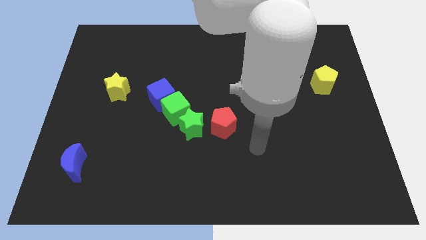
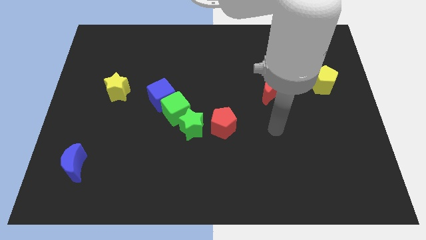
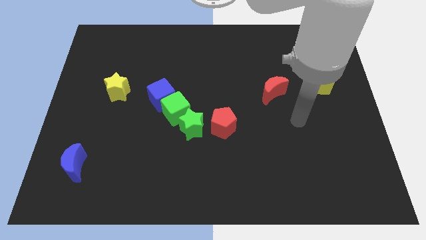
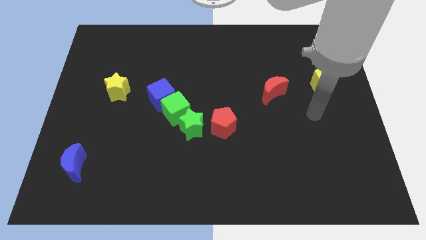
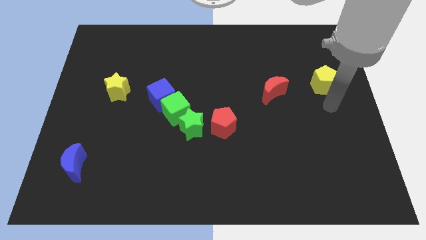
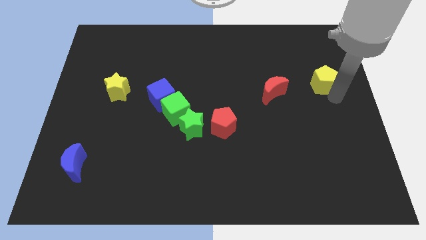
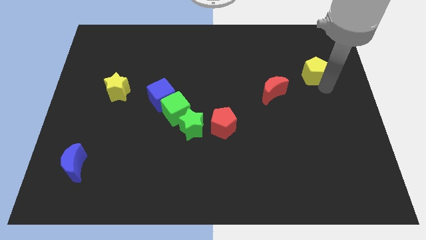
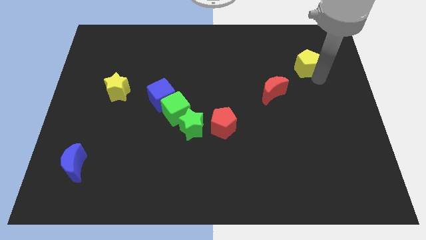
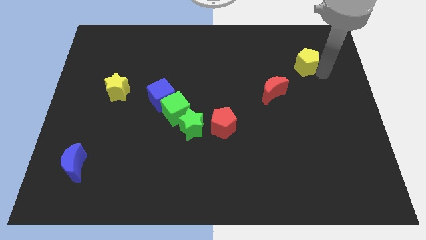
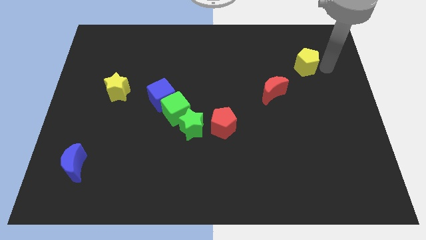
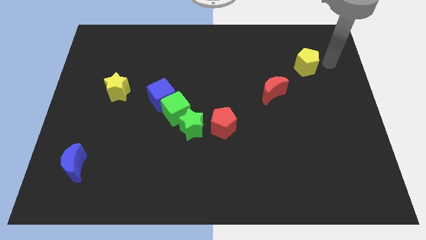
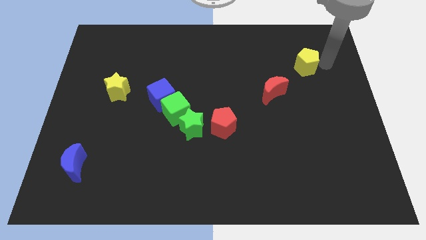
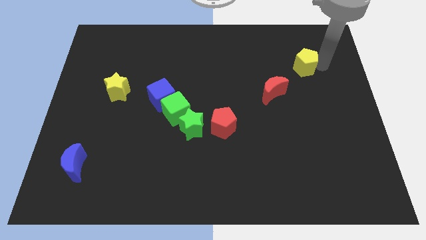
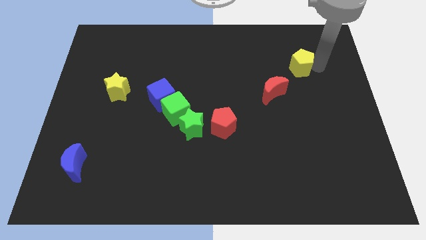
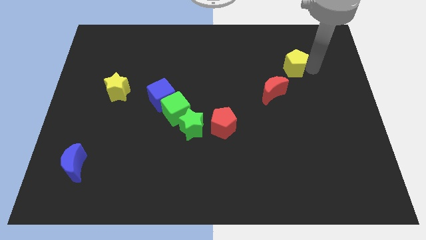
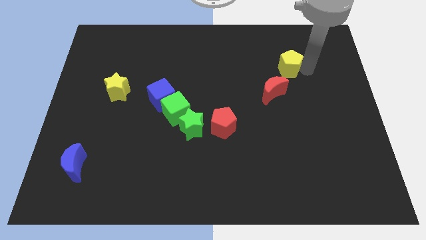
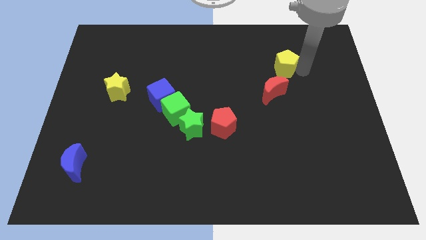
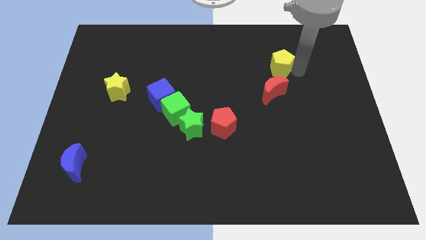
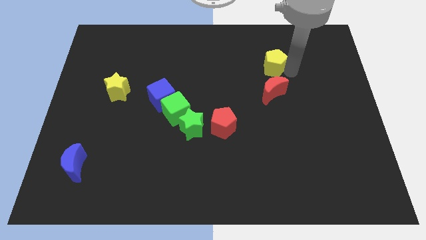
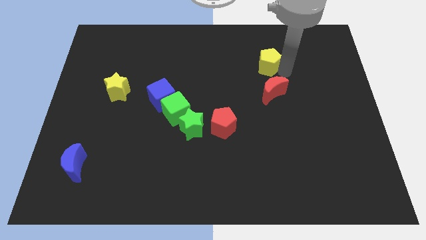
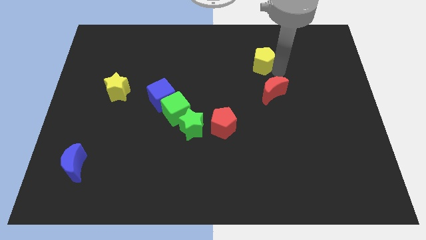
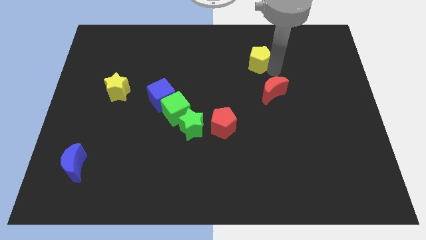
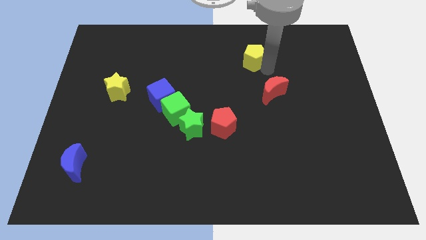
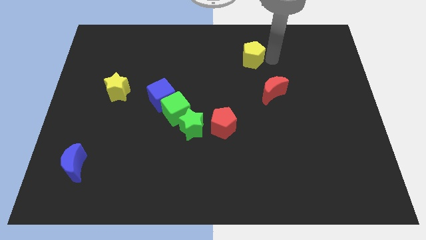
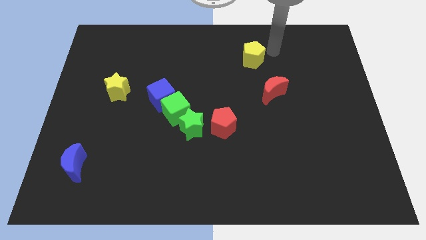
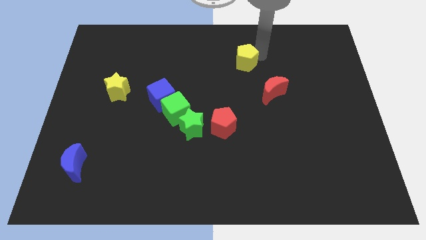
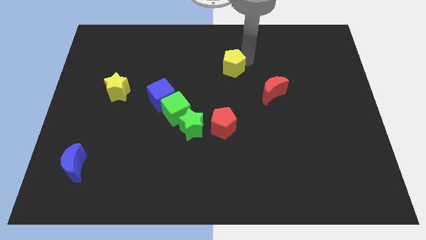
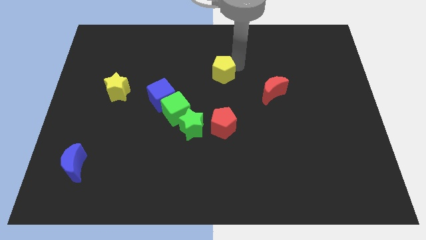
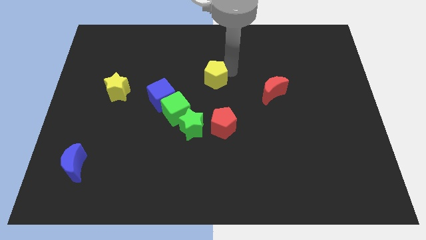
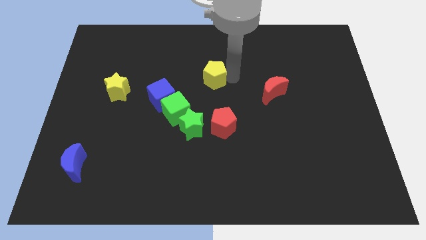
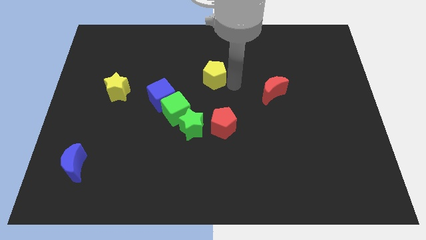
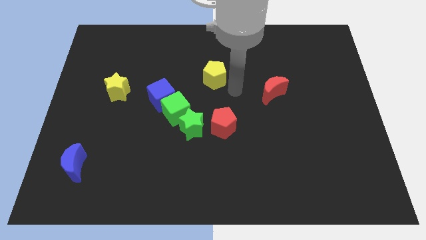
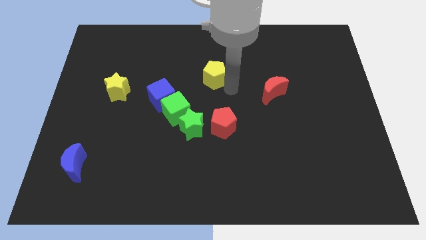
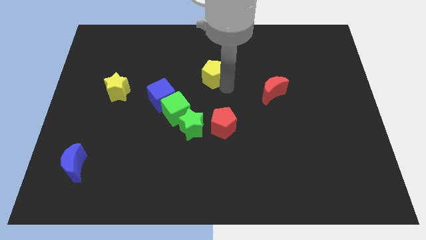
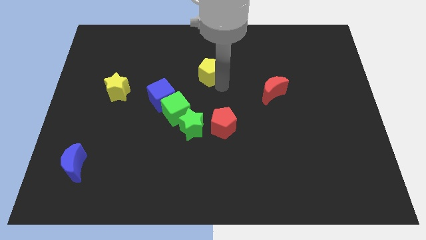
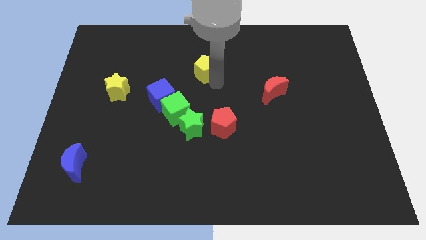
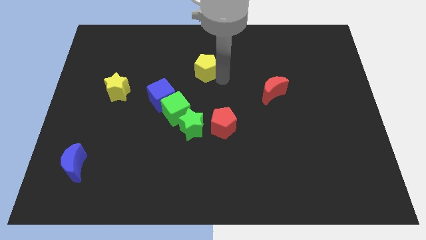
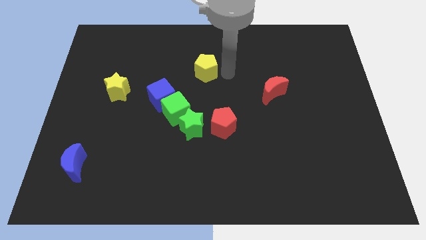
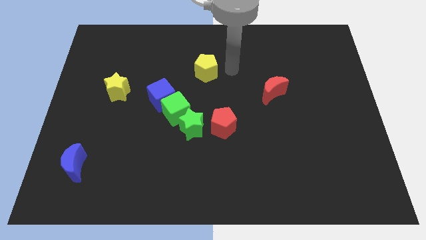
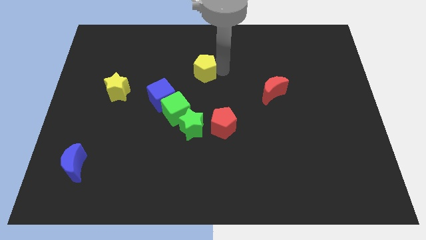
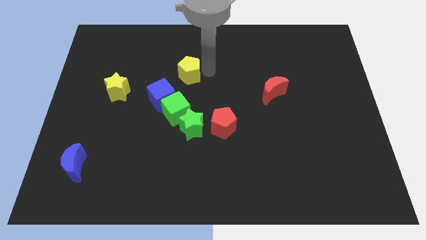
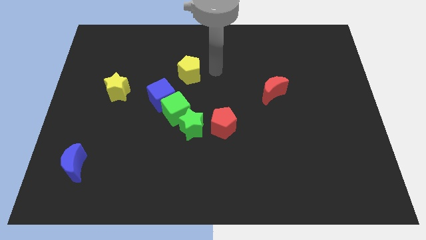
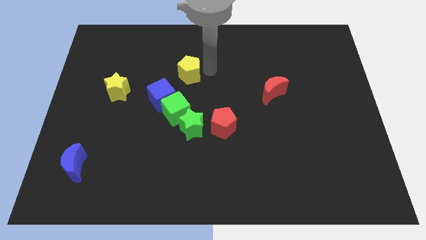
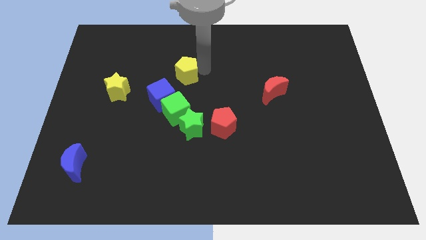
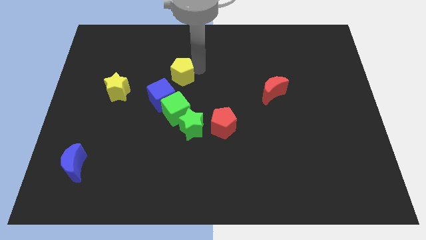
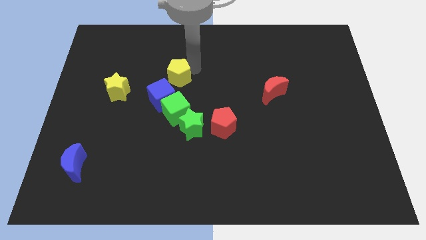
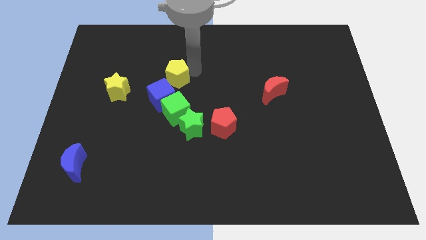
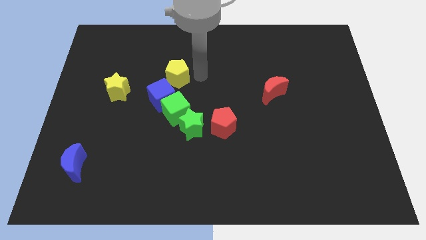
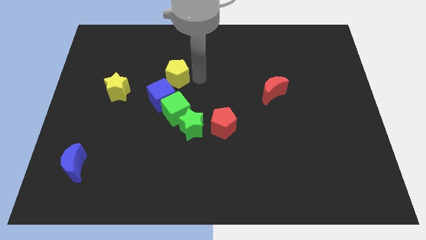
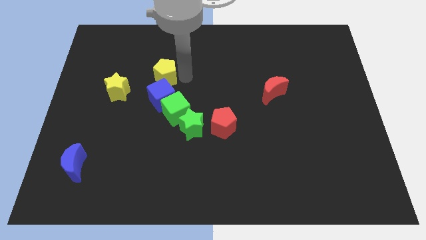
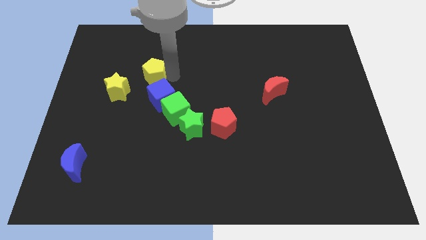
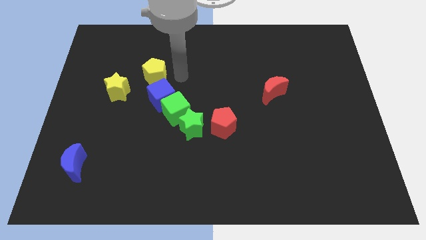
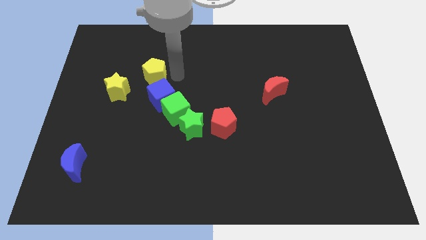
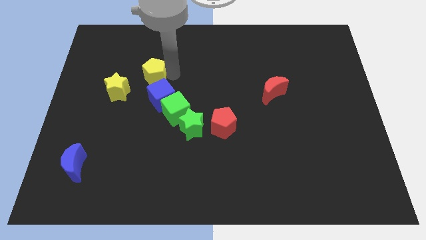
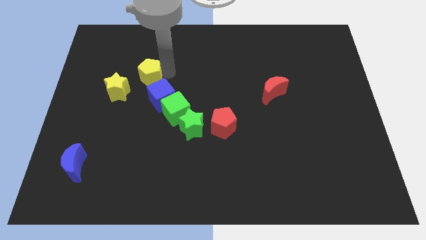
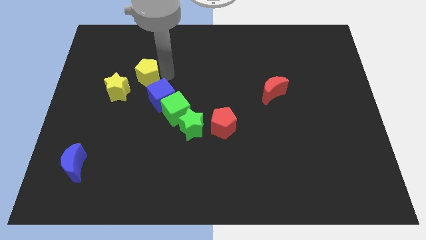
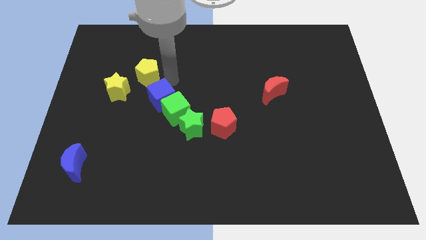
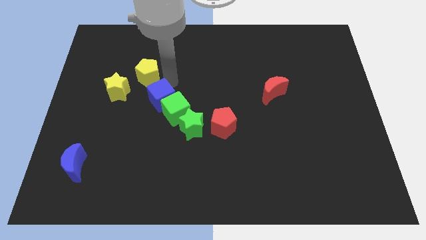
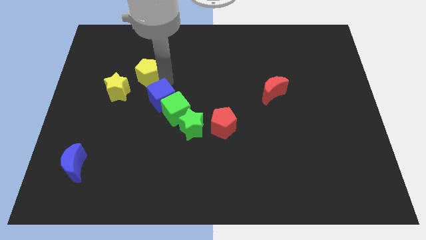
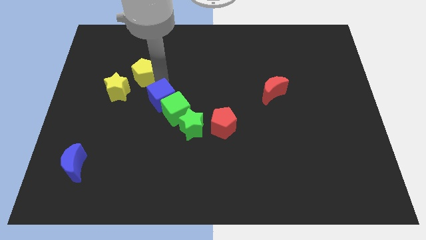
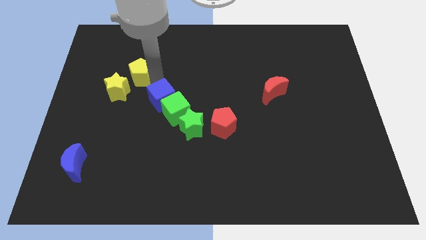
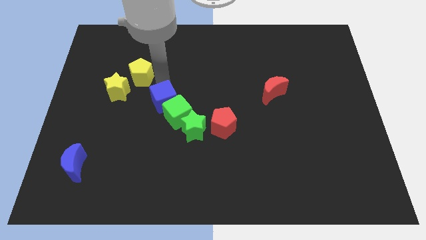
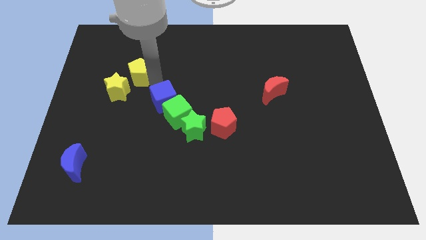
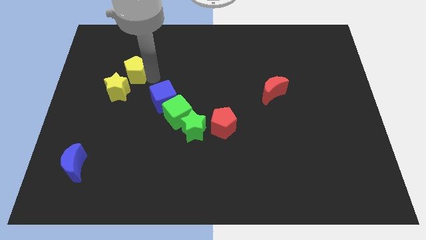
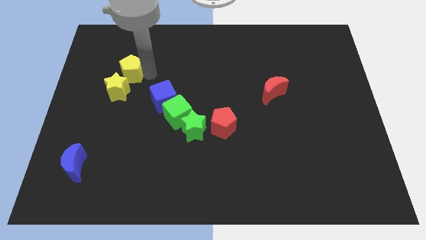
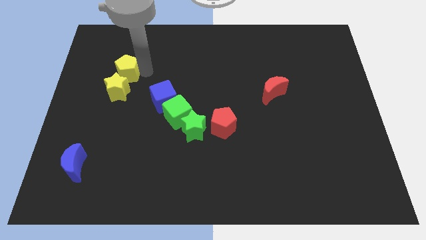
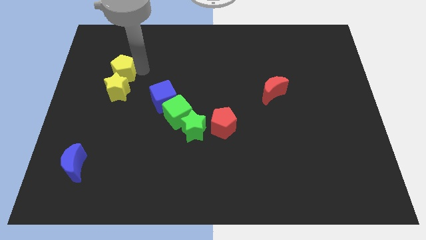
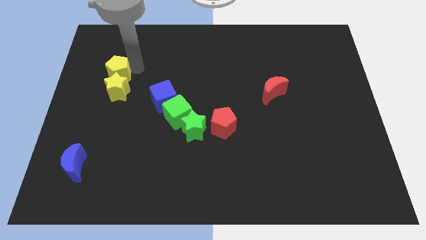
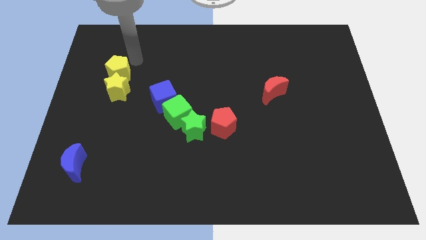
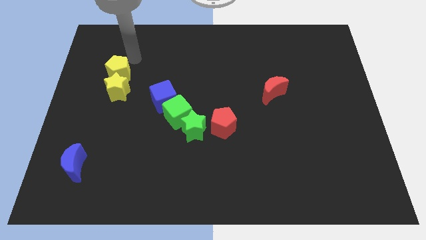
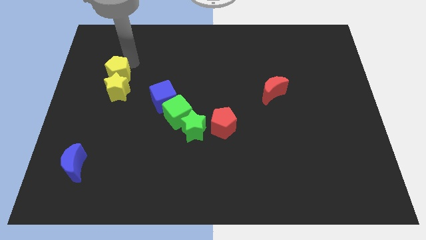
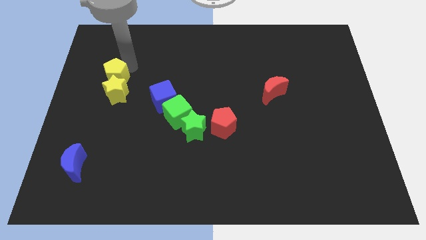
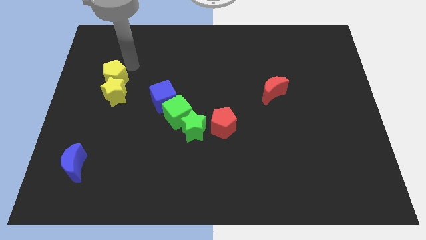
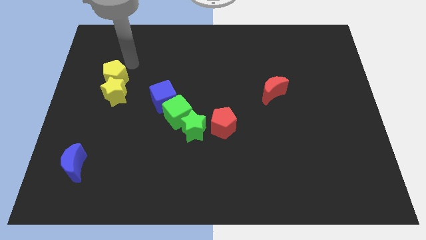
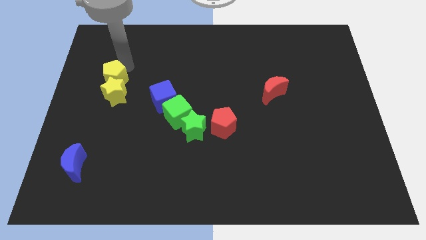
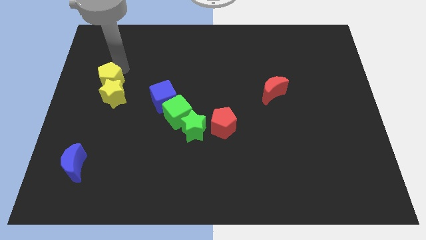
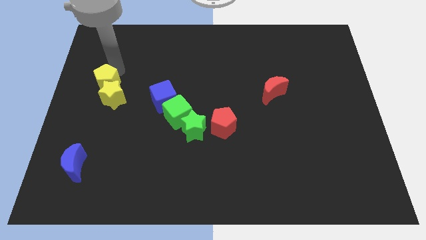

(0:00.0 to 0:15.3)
push the yellow pentagon to the left side of the board
